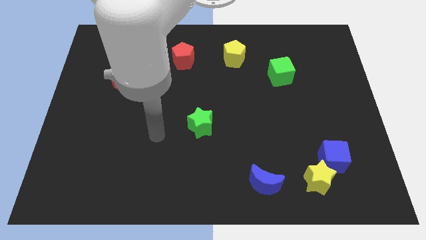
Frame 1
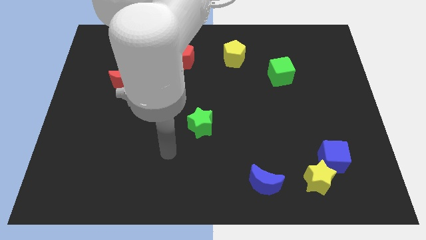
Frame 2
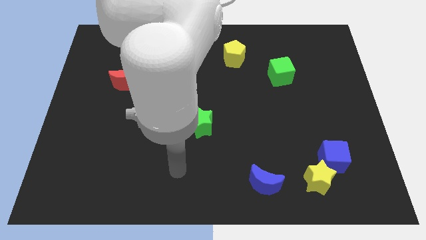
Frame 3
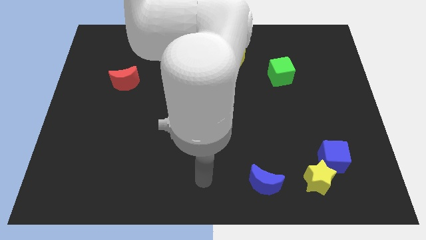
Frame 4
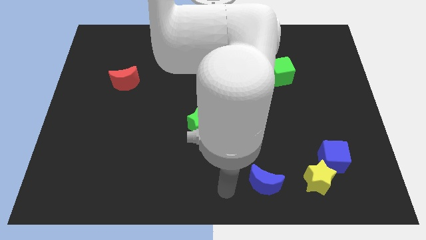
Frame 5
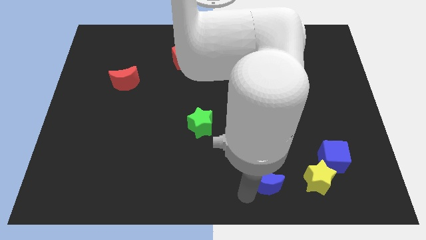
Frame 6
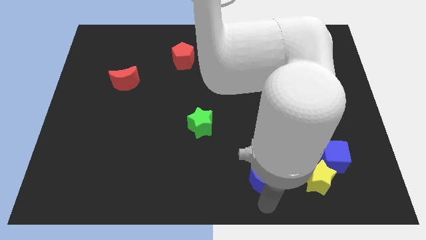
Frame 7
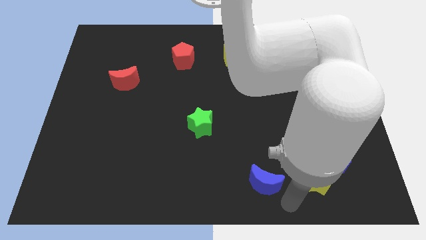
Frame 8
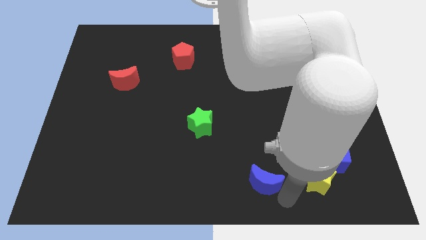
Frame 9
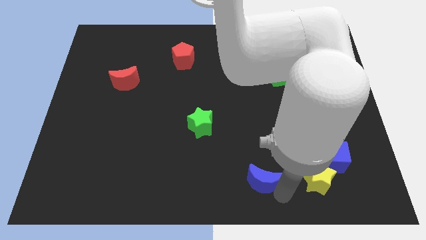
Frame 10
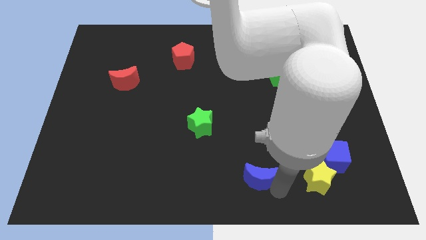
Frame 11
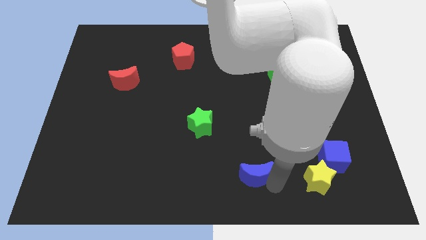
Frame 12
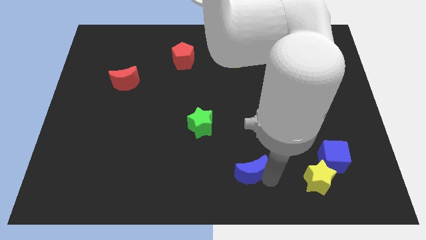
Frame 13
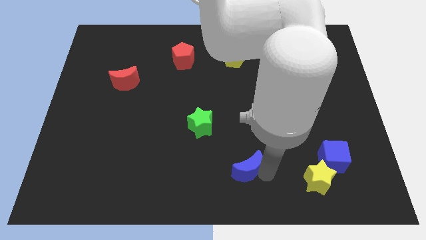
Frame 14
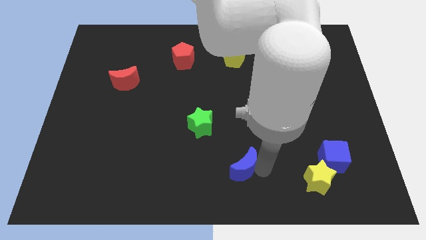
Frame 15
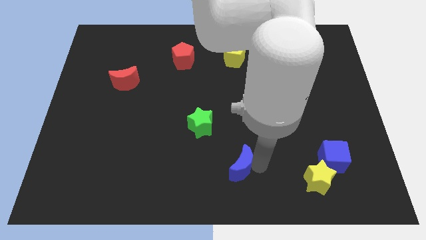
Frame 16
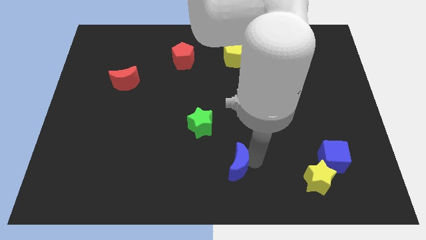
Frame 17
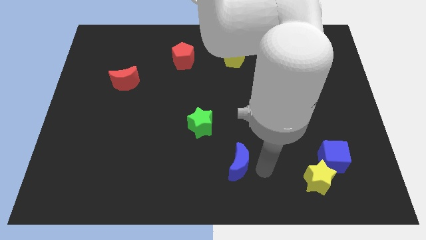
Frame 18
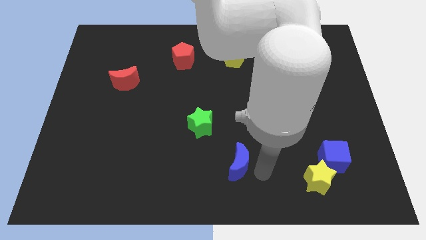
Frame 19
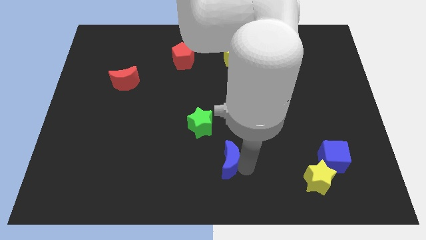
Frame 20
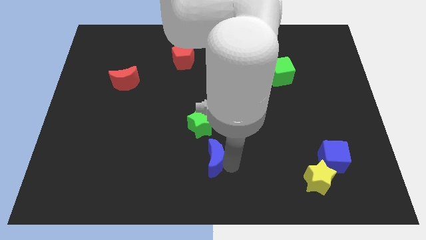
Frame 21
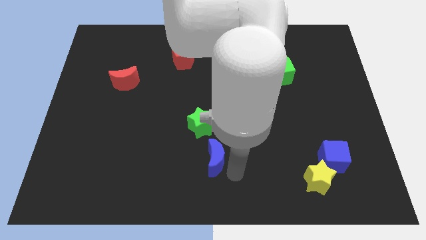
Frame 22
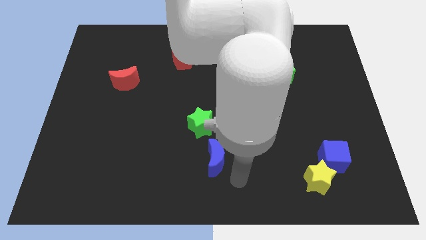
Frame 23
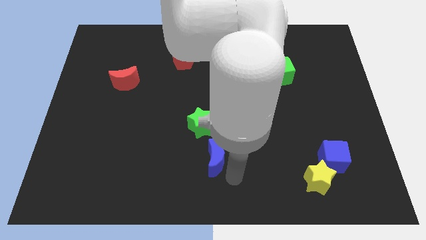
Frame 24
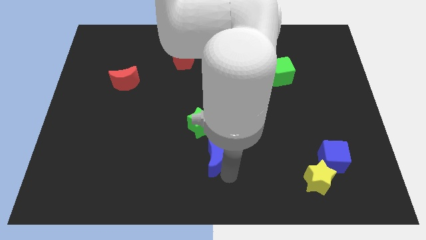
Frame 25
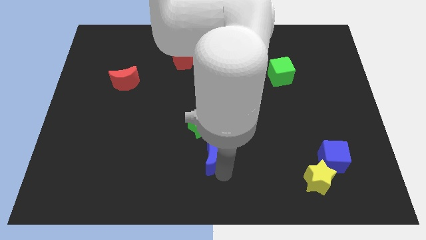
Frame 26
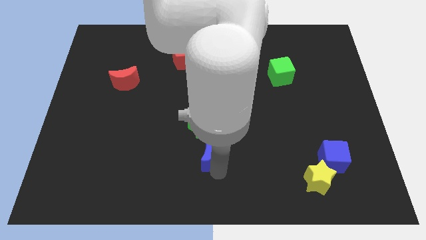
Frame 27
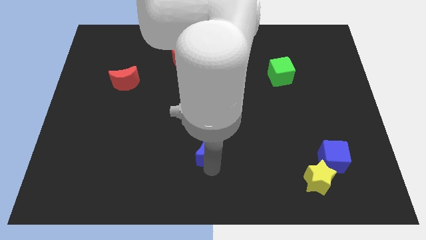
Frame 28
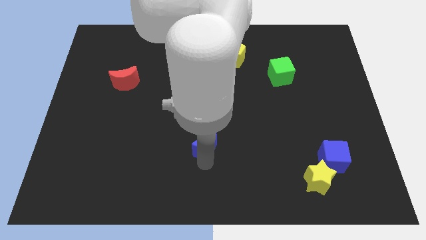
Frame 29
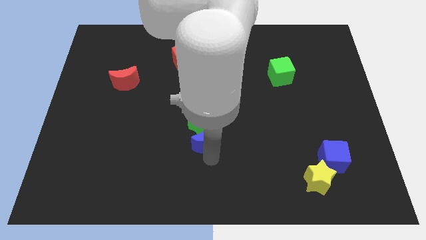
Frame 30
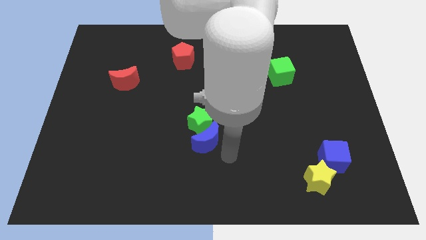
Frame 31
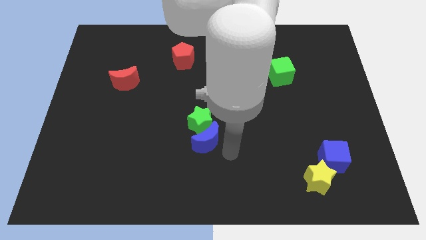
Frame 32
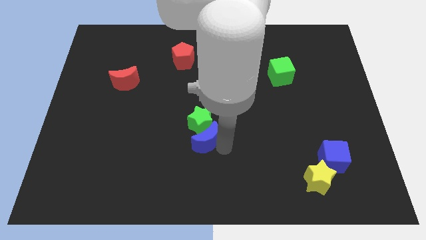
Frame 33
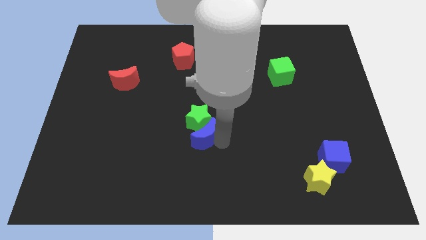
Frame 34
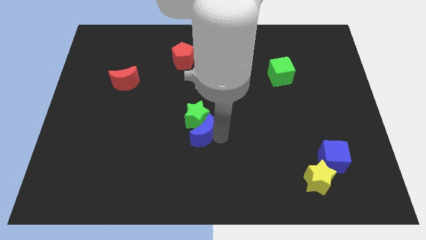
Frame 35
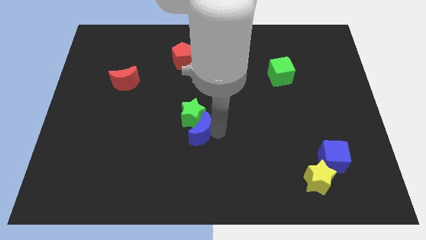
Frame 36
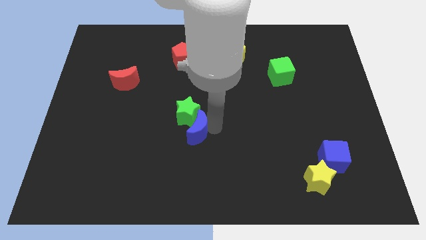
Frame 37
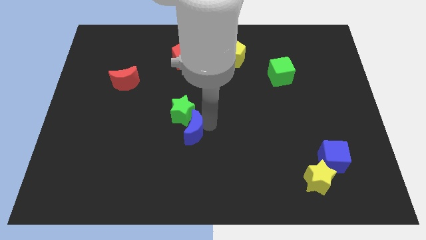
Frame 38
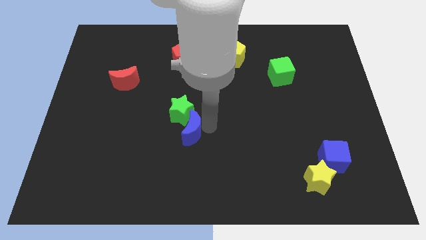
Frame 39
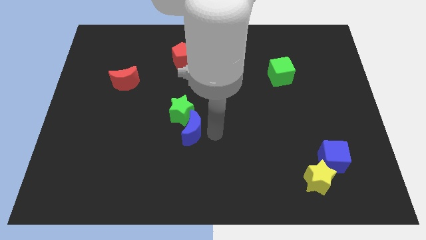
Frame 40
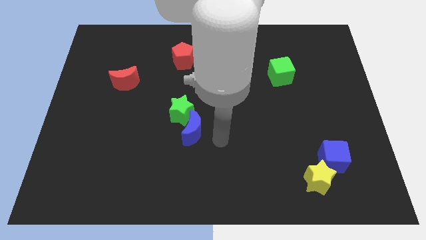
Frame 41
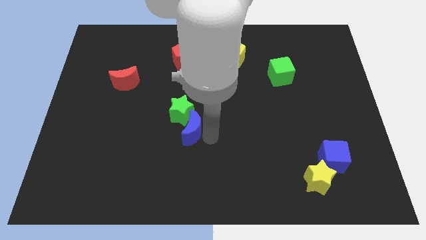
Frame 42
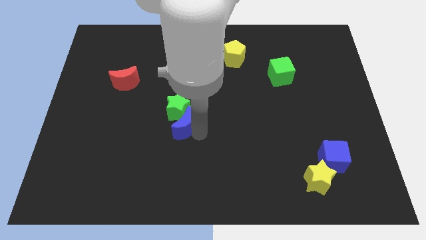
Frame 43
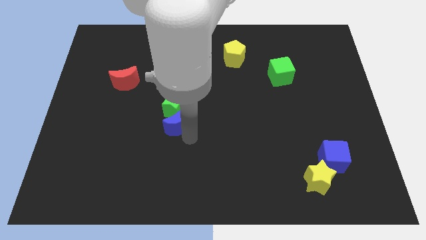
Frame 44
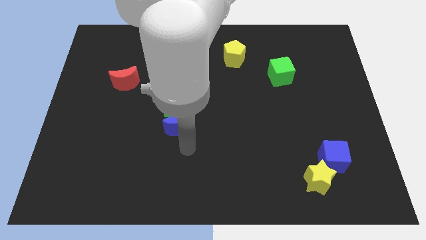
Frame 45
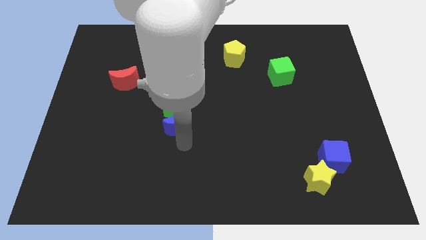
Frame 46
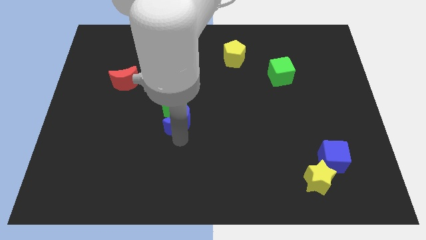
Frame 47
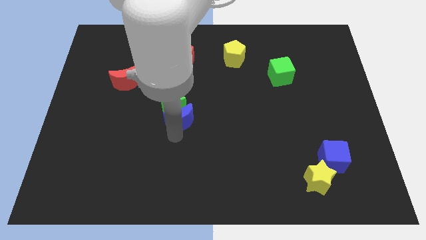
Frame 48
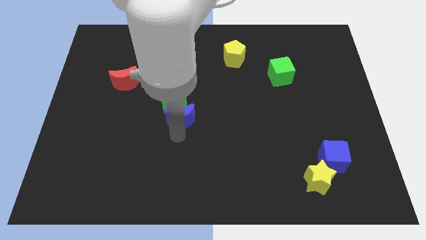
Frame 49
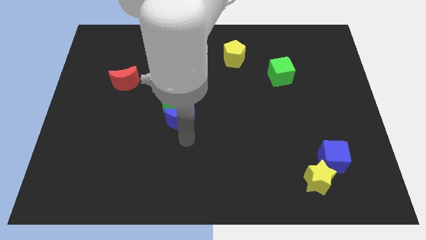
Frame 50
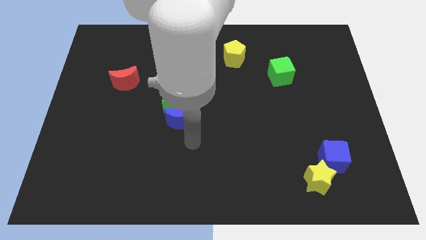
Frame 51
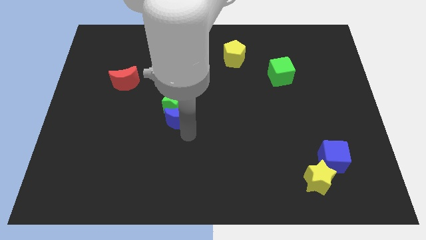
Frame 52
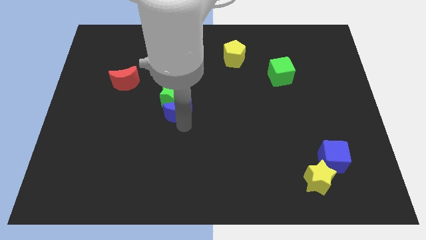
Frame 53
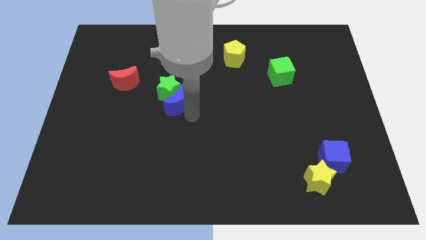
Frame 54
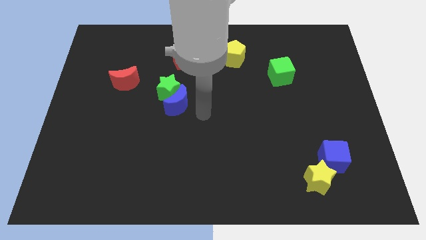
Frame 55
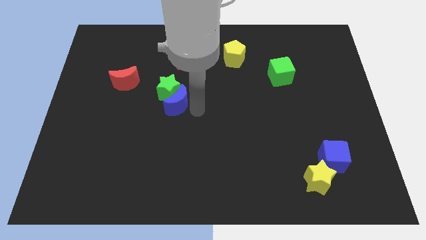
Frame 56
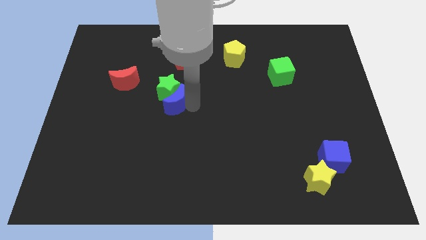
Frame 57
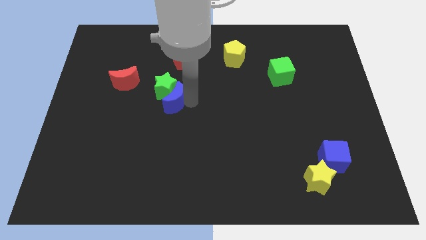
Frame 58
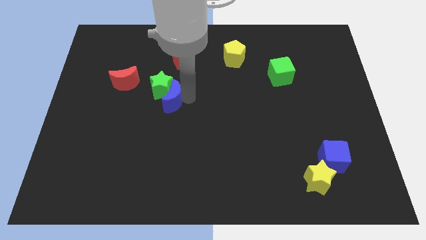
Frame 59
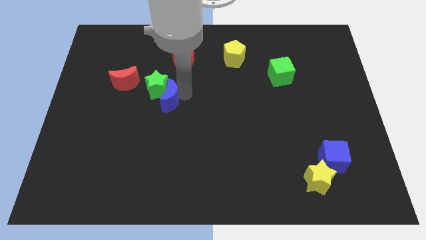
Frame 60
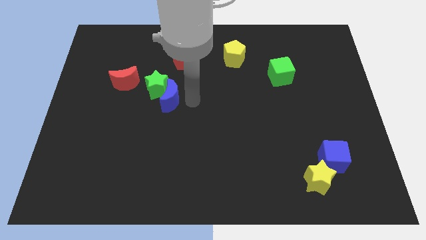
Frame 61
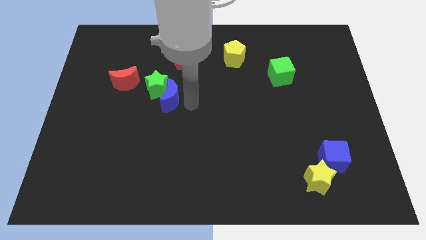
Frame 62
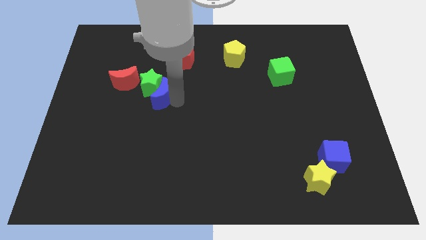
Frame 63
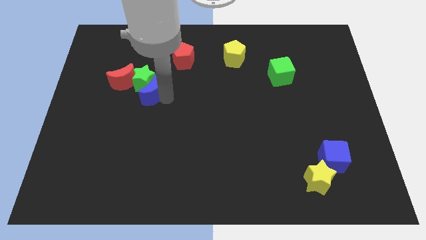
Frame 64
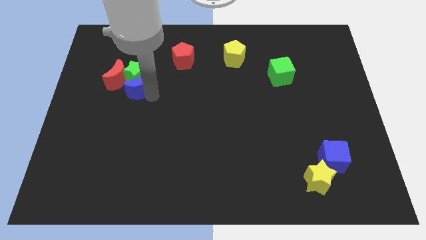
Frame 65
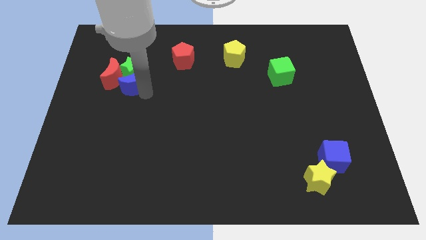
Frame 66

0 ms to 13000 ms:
push the blue moon towards the red moon

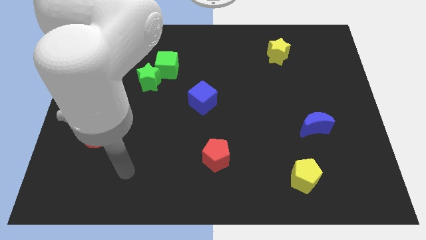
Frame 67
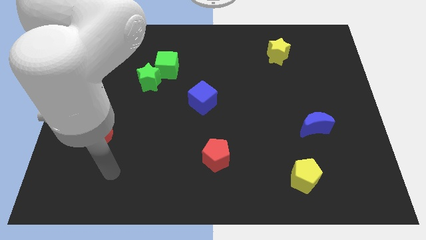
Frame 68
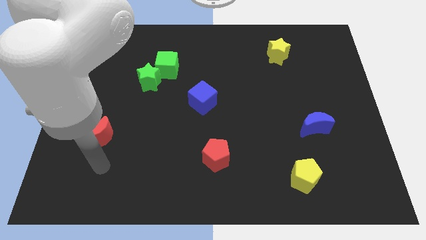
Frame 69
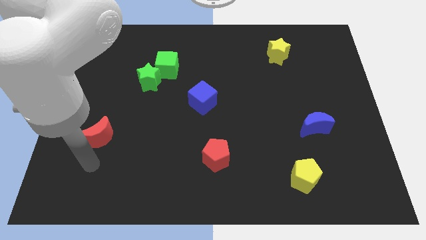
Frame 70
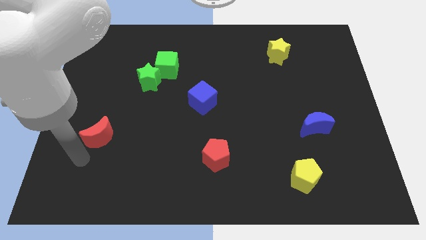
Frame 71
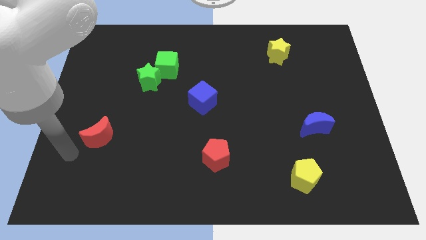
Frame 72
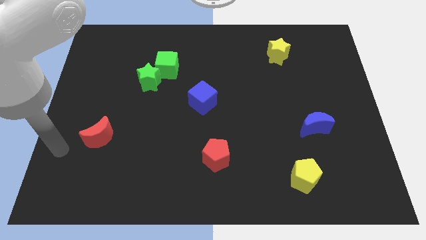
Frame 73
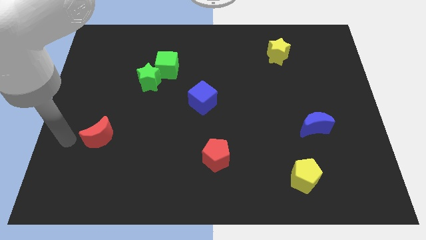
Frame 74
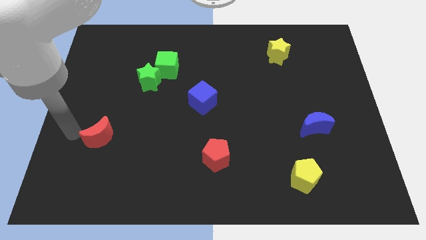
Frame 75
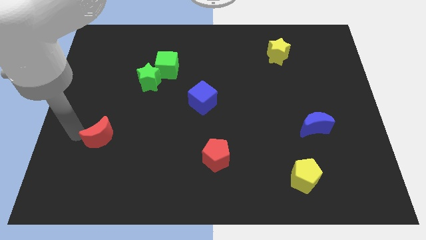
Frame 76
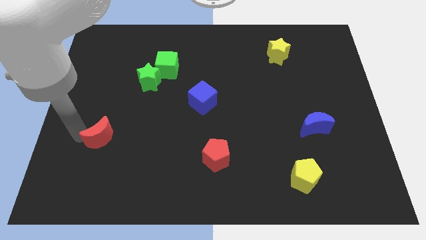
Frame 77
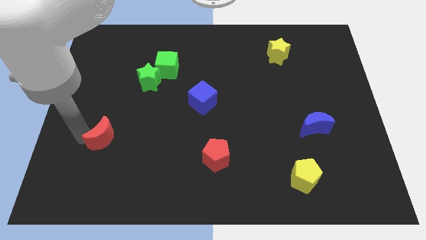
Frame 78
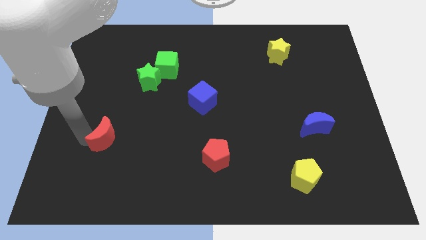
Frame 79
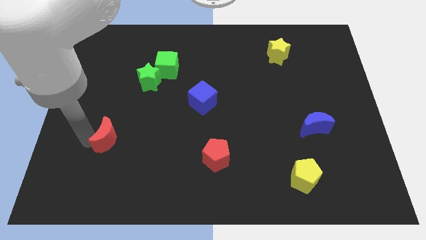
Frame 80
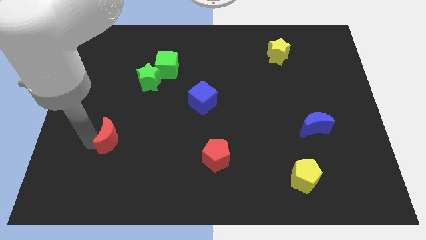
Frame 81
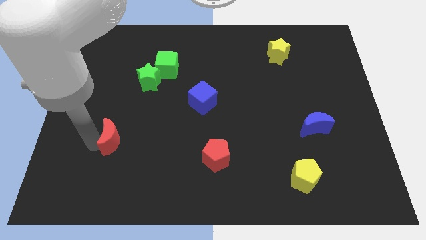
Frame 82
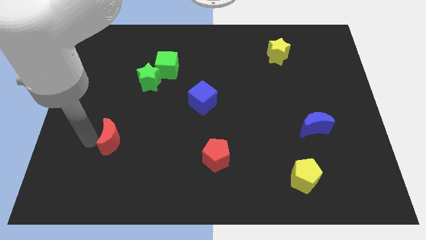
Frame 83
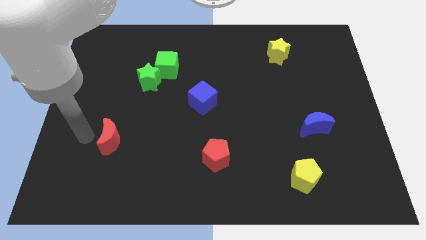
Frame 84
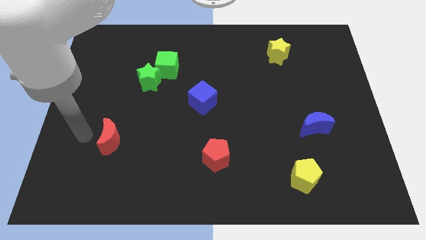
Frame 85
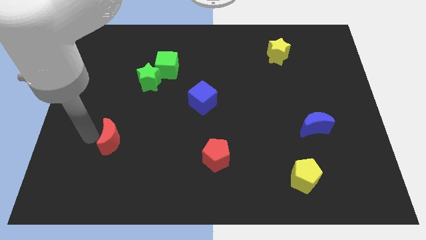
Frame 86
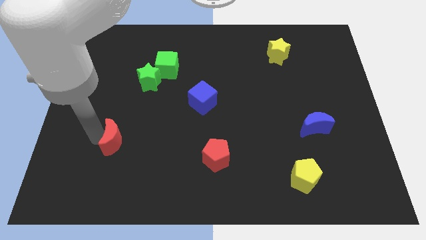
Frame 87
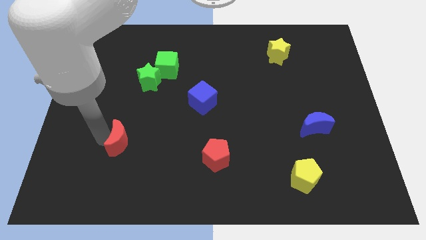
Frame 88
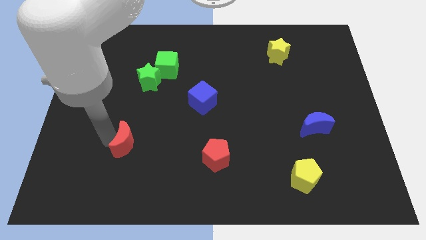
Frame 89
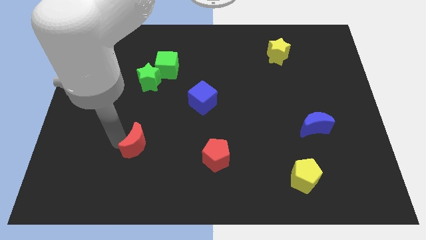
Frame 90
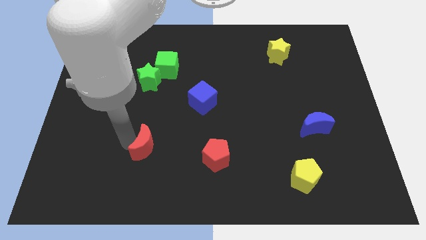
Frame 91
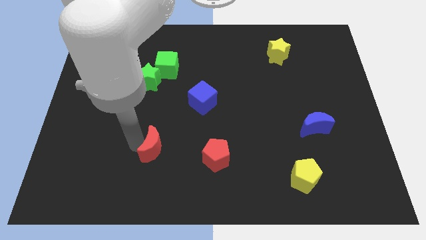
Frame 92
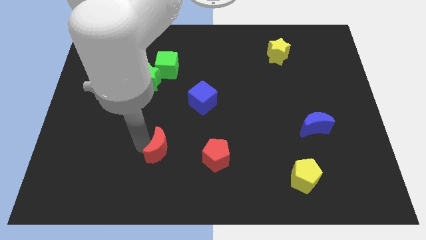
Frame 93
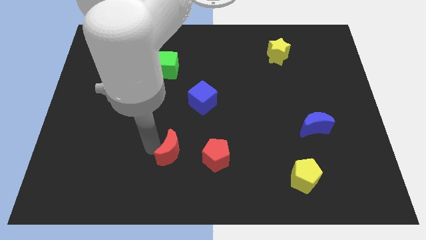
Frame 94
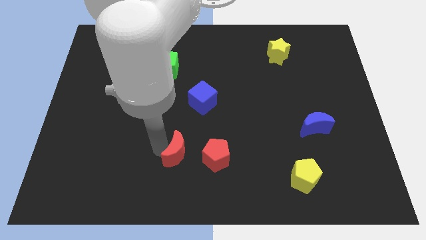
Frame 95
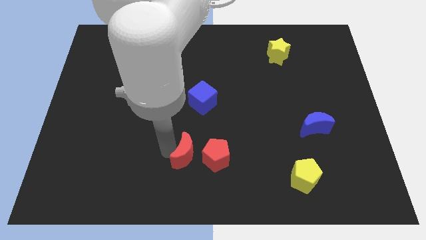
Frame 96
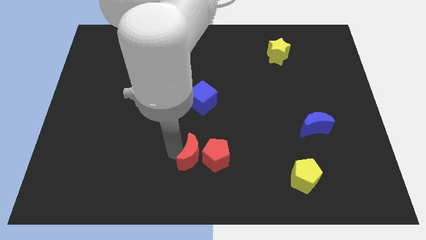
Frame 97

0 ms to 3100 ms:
push the red moon close to the red pentagon
